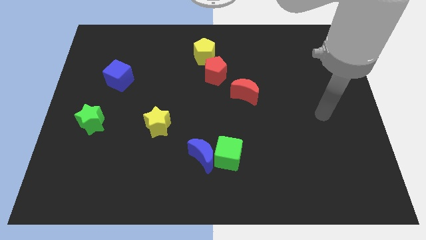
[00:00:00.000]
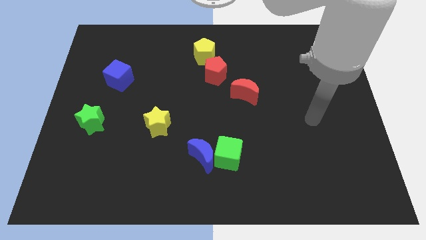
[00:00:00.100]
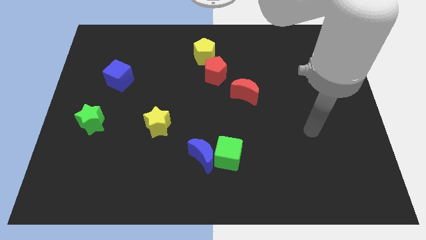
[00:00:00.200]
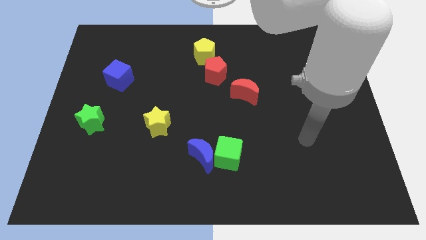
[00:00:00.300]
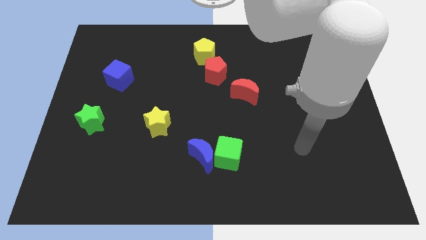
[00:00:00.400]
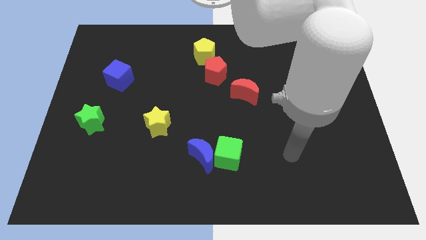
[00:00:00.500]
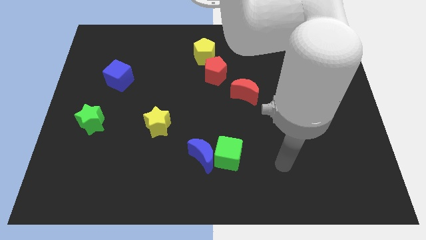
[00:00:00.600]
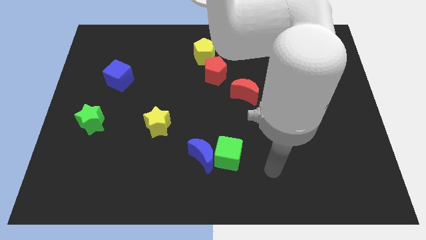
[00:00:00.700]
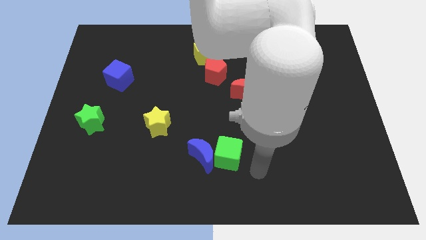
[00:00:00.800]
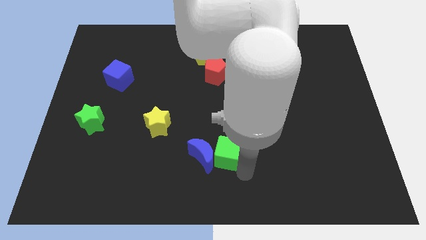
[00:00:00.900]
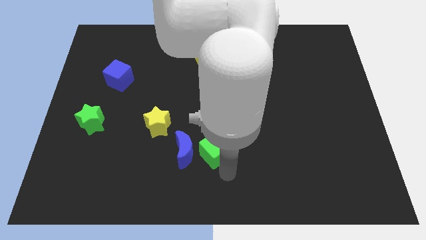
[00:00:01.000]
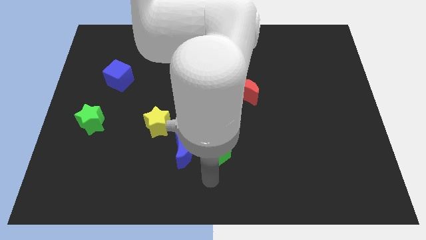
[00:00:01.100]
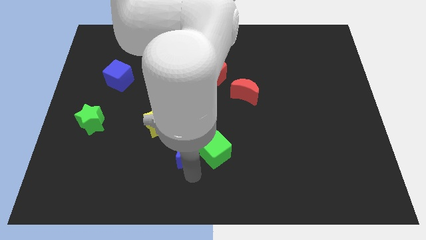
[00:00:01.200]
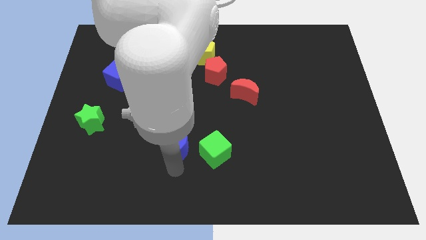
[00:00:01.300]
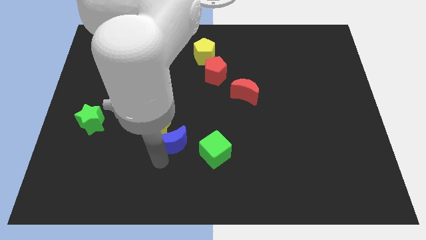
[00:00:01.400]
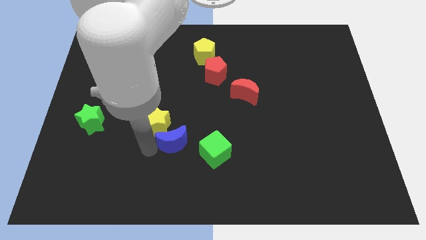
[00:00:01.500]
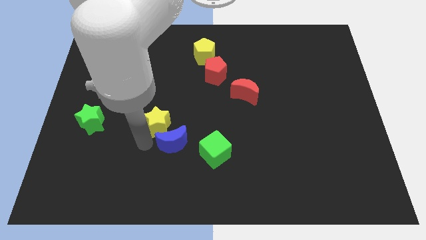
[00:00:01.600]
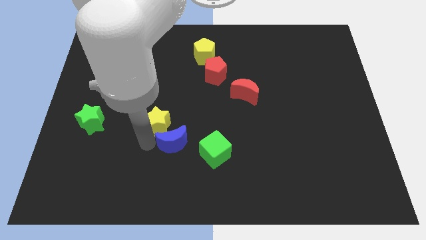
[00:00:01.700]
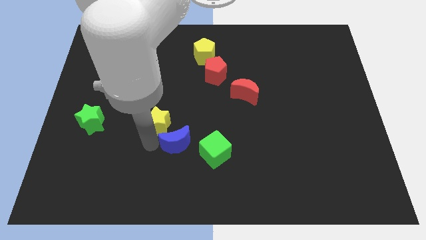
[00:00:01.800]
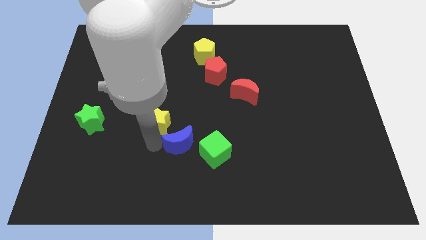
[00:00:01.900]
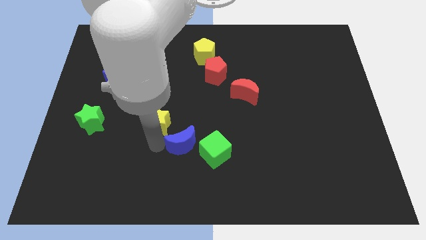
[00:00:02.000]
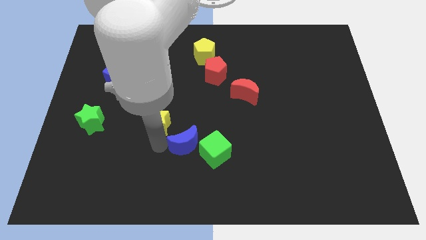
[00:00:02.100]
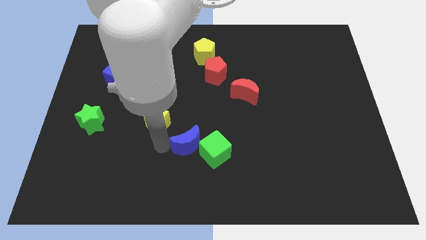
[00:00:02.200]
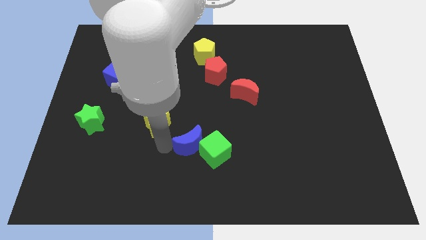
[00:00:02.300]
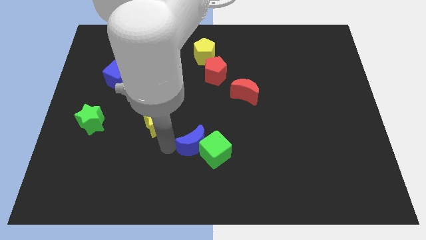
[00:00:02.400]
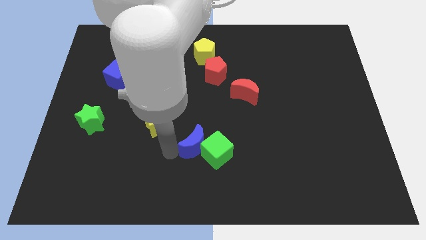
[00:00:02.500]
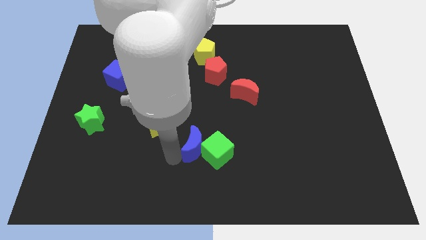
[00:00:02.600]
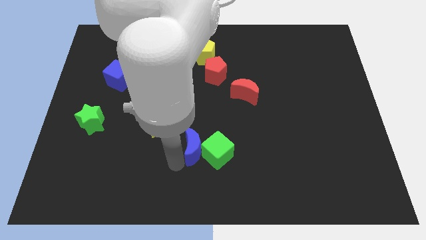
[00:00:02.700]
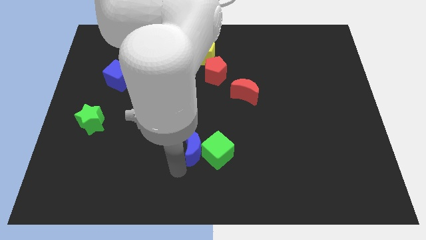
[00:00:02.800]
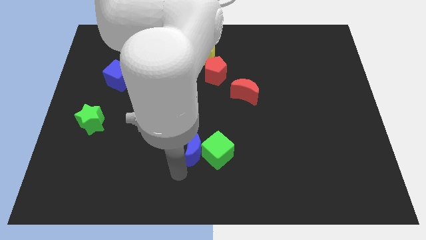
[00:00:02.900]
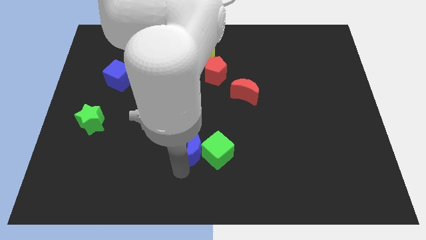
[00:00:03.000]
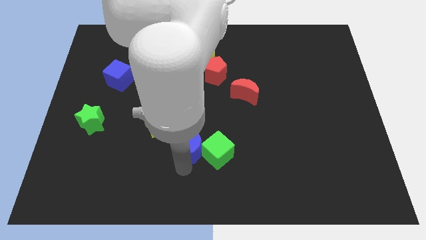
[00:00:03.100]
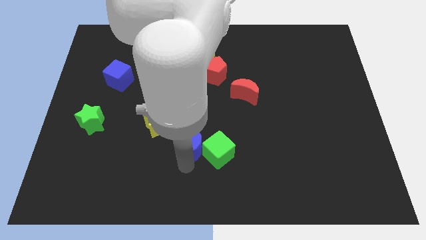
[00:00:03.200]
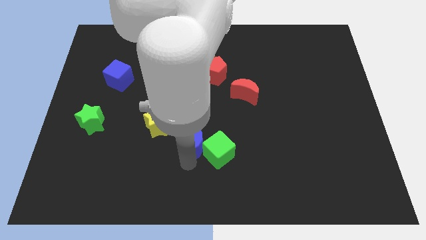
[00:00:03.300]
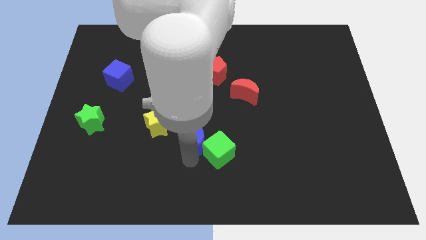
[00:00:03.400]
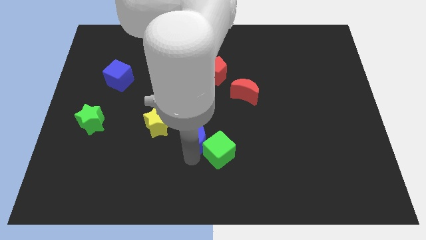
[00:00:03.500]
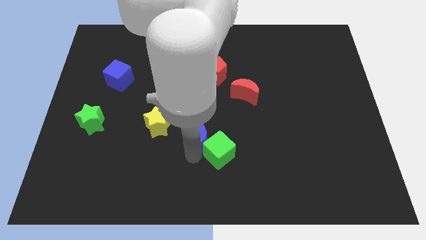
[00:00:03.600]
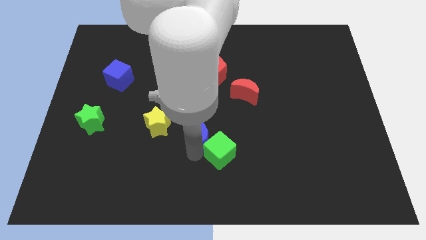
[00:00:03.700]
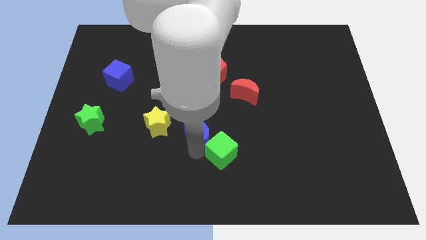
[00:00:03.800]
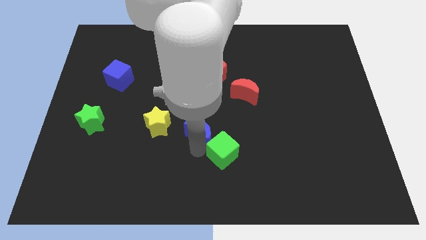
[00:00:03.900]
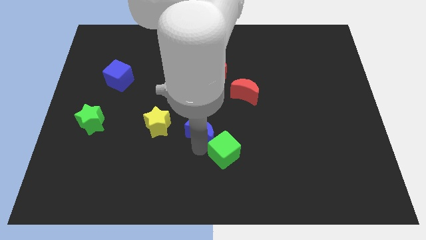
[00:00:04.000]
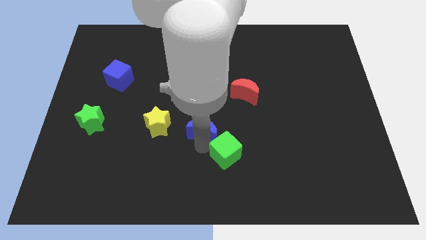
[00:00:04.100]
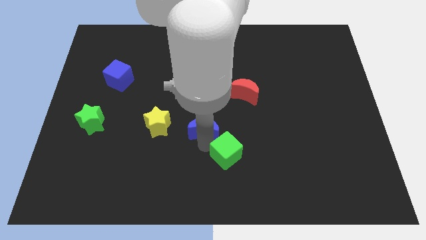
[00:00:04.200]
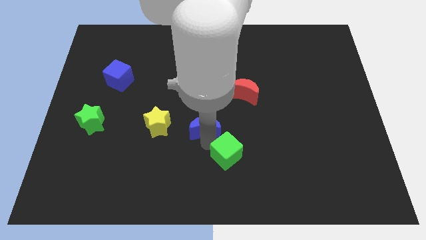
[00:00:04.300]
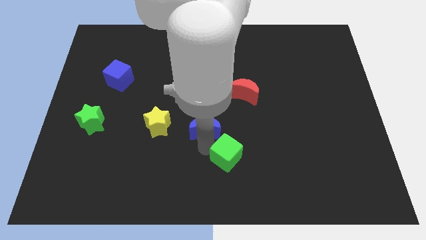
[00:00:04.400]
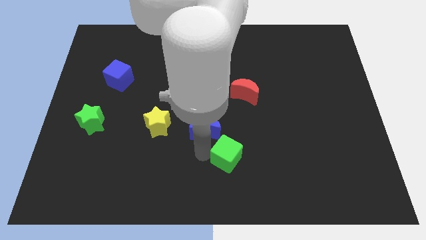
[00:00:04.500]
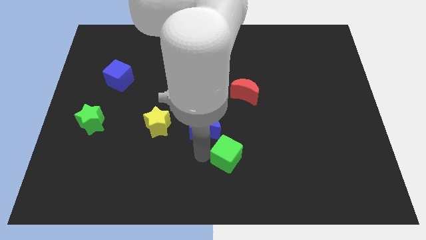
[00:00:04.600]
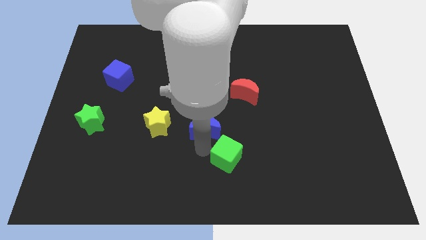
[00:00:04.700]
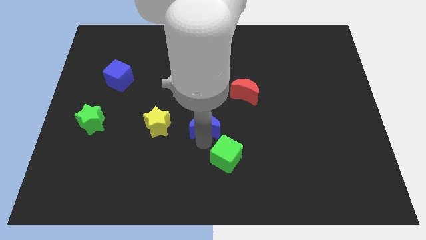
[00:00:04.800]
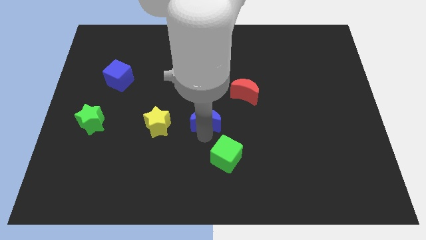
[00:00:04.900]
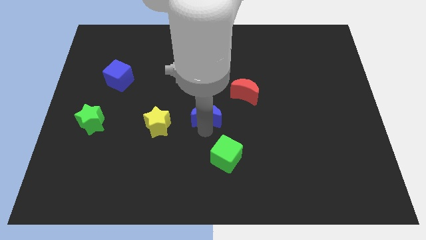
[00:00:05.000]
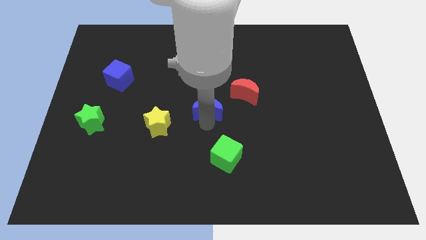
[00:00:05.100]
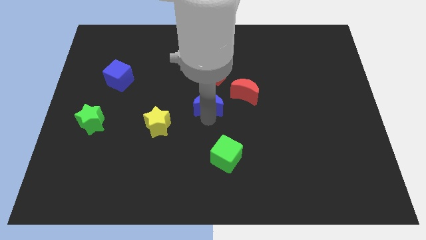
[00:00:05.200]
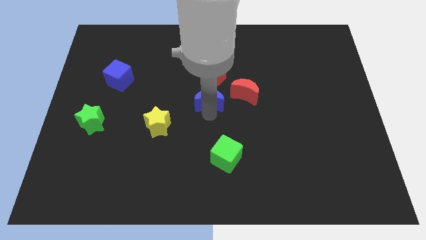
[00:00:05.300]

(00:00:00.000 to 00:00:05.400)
slide the blue moon to the bottom side of the yellow pentagon

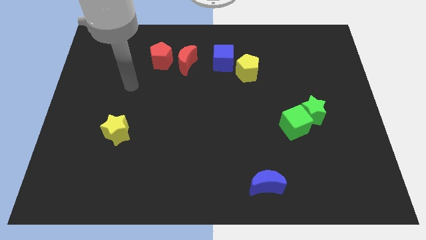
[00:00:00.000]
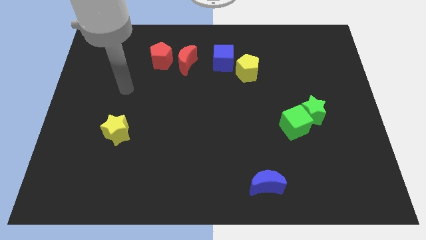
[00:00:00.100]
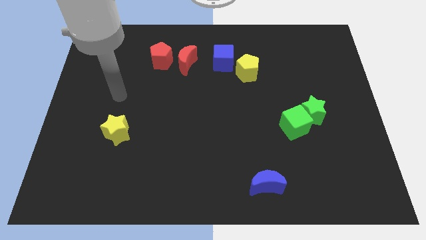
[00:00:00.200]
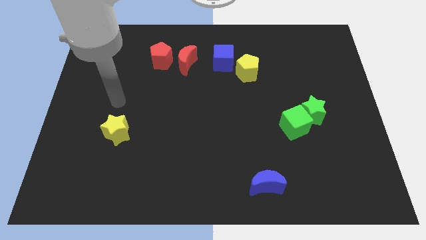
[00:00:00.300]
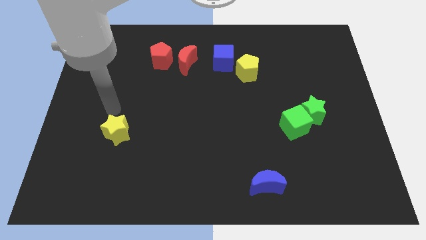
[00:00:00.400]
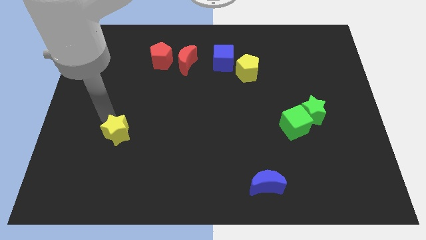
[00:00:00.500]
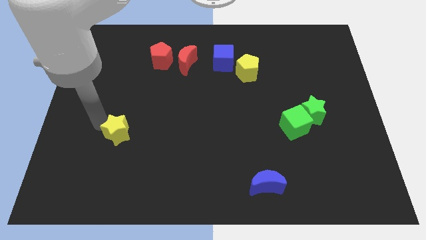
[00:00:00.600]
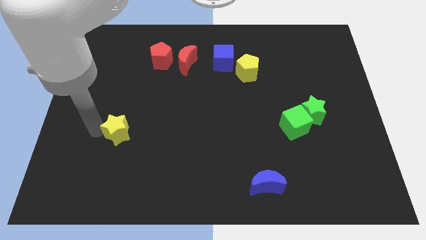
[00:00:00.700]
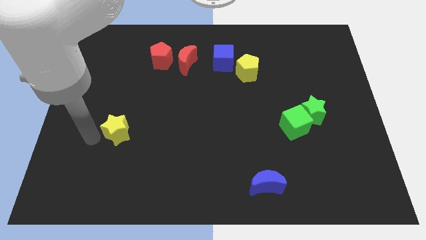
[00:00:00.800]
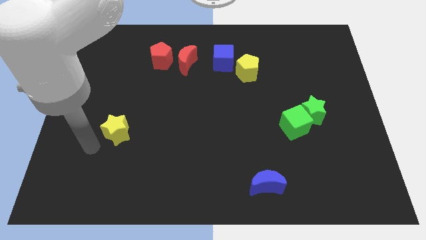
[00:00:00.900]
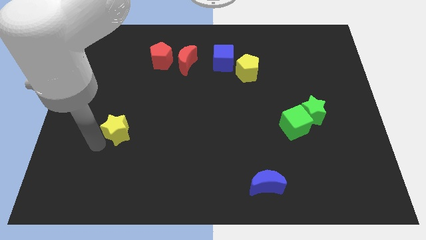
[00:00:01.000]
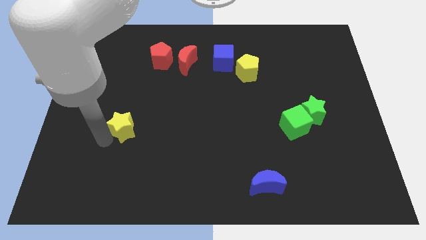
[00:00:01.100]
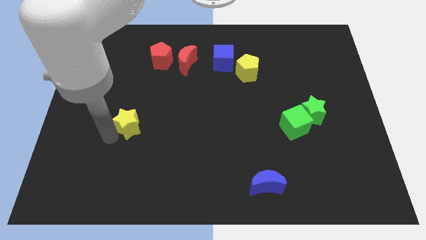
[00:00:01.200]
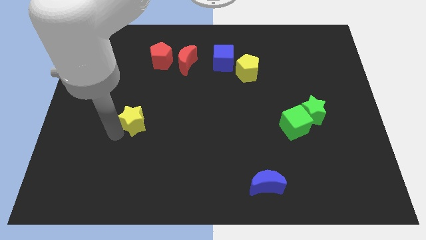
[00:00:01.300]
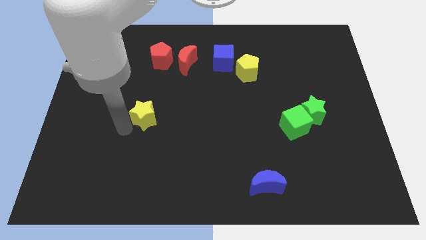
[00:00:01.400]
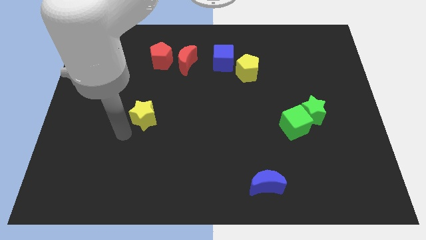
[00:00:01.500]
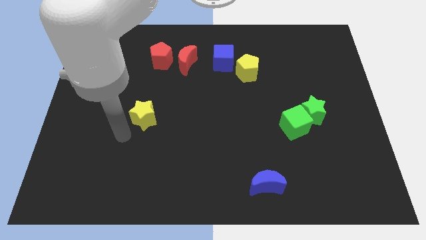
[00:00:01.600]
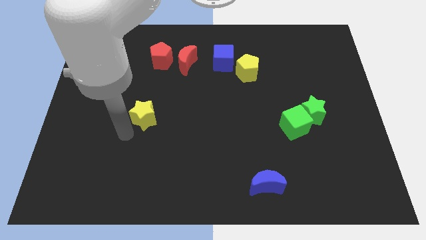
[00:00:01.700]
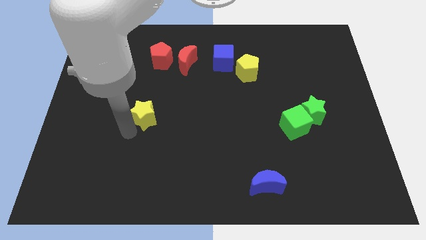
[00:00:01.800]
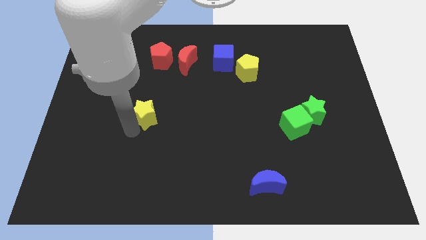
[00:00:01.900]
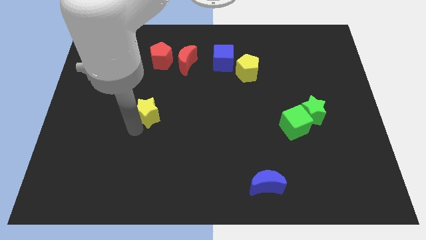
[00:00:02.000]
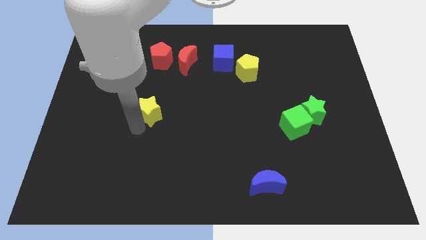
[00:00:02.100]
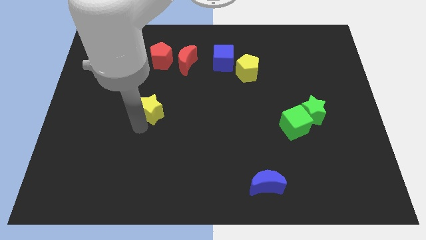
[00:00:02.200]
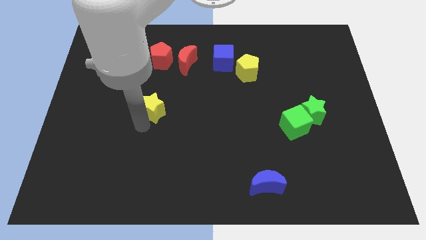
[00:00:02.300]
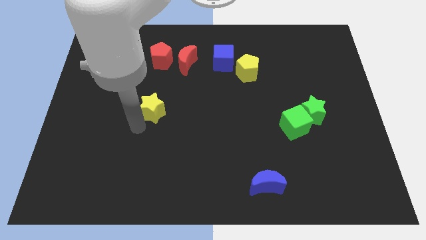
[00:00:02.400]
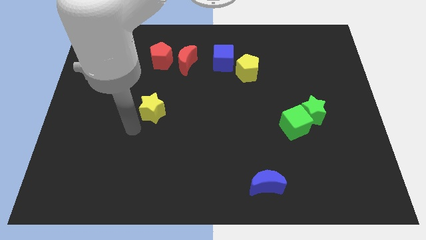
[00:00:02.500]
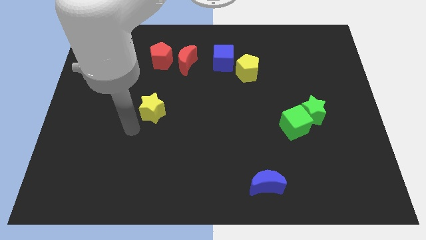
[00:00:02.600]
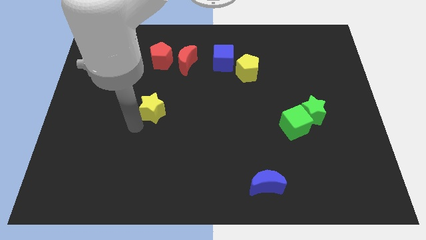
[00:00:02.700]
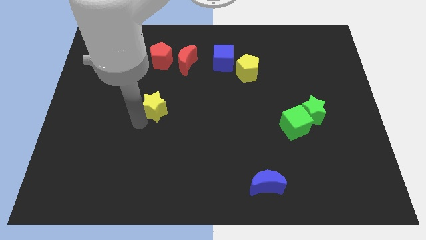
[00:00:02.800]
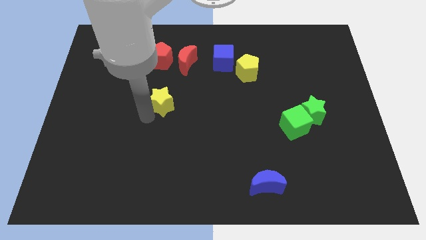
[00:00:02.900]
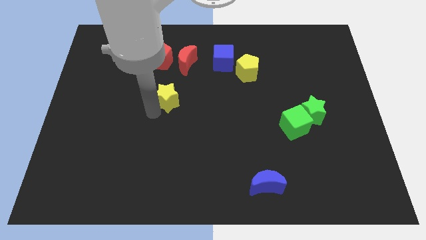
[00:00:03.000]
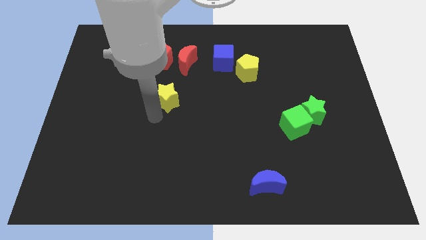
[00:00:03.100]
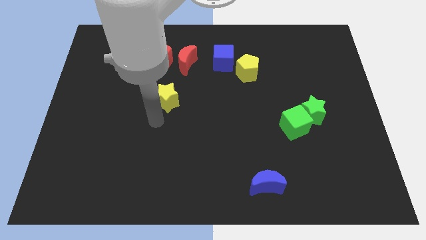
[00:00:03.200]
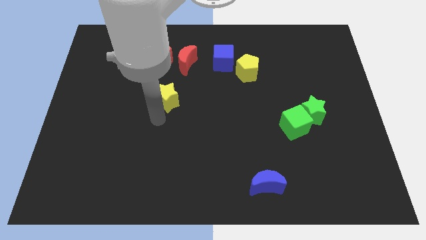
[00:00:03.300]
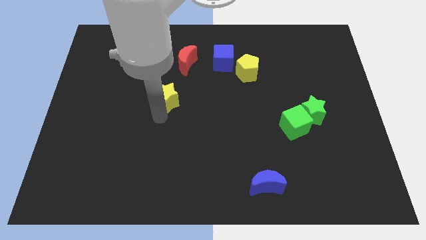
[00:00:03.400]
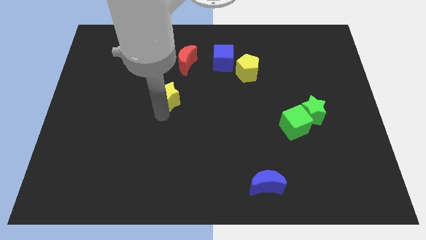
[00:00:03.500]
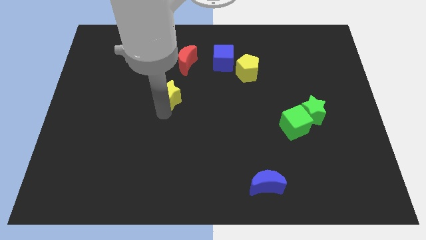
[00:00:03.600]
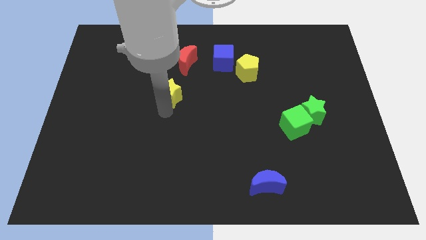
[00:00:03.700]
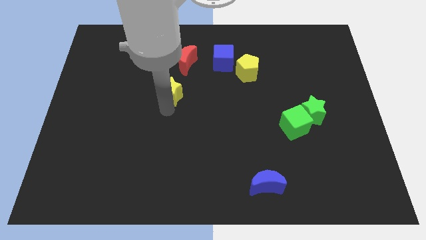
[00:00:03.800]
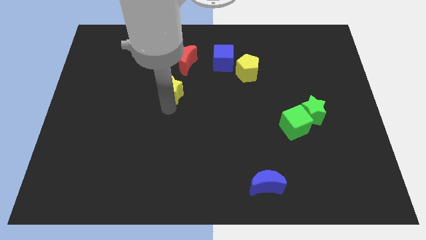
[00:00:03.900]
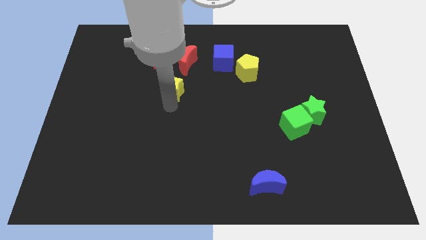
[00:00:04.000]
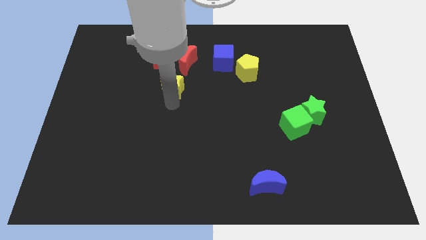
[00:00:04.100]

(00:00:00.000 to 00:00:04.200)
slide the yellow star to the bottom right of the red pentagon
